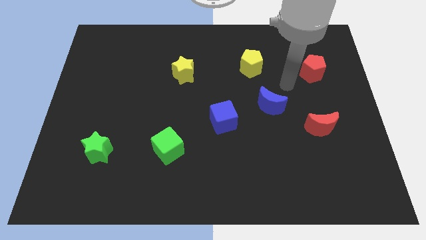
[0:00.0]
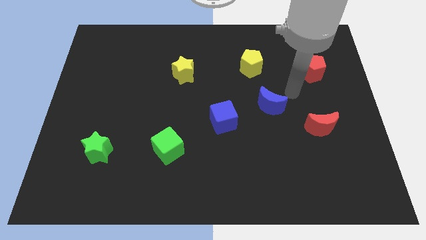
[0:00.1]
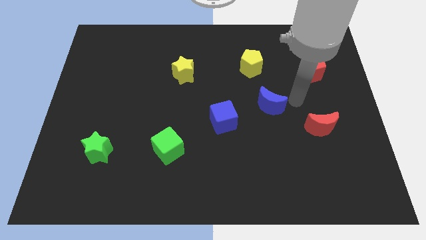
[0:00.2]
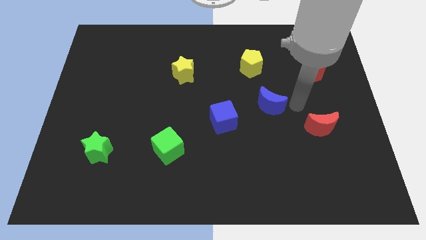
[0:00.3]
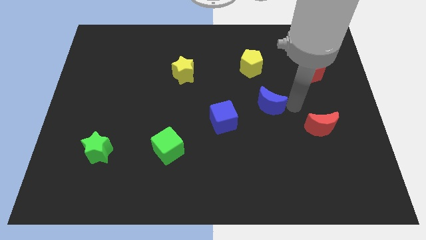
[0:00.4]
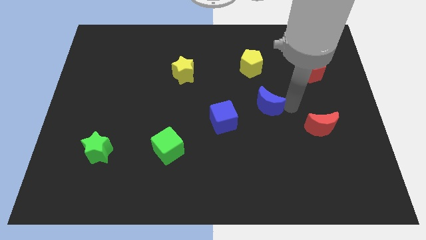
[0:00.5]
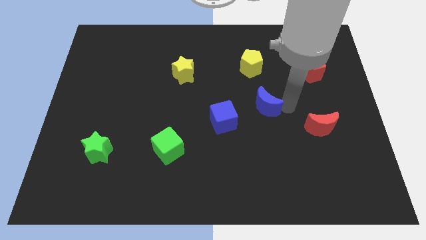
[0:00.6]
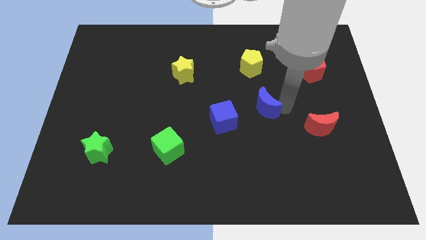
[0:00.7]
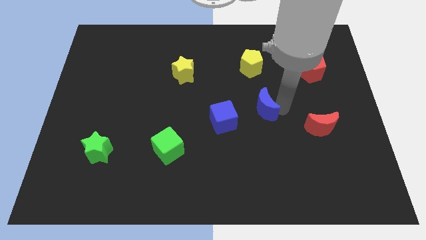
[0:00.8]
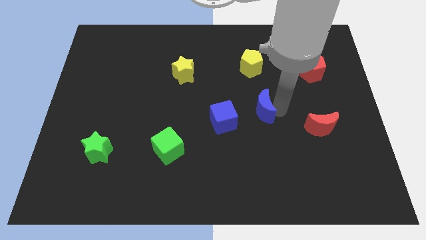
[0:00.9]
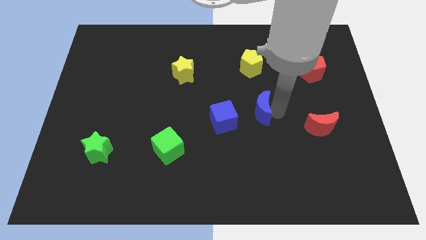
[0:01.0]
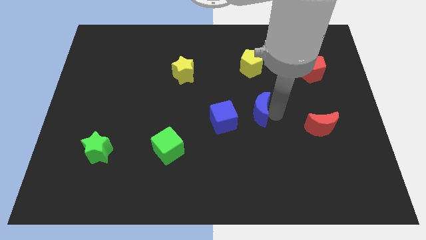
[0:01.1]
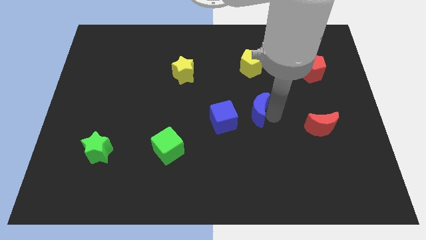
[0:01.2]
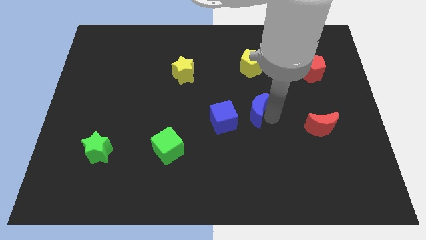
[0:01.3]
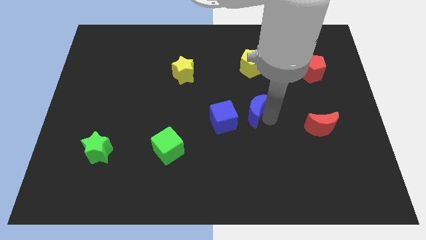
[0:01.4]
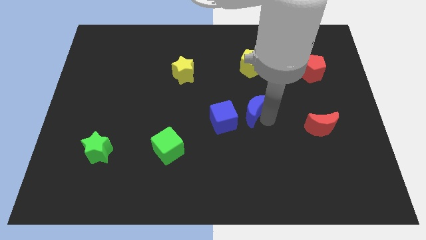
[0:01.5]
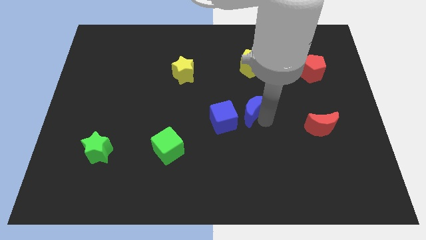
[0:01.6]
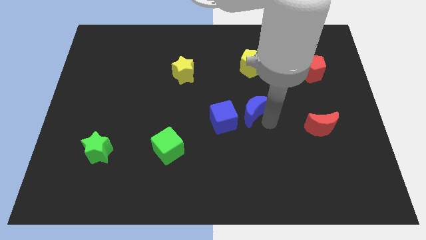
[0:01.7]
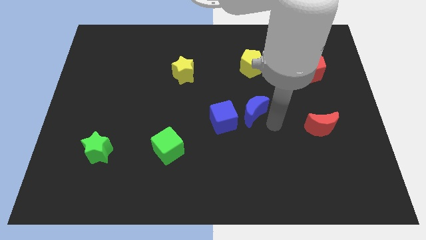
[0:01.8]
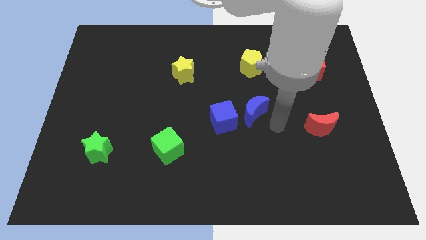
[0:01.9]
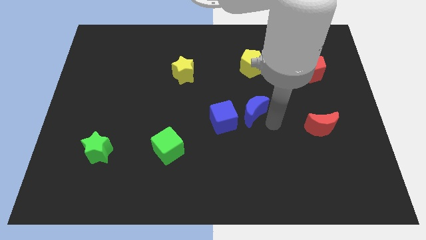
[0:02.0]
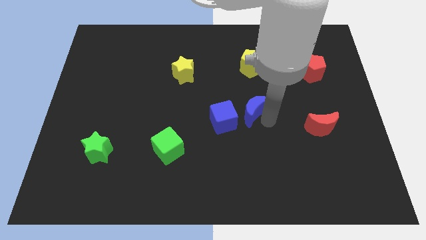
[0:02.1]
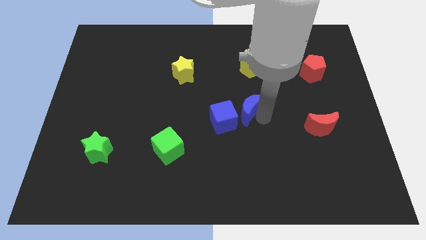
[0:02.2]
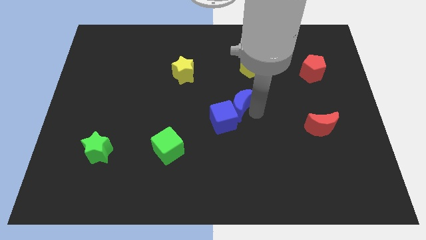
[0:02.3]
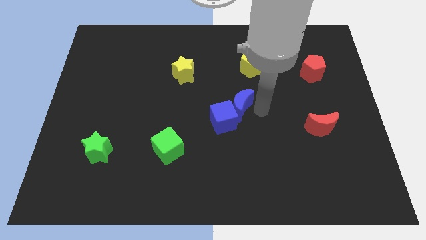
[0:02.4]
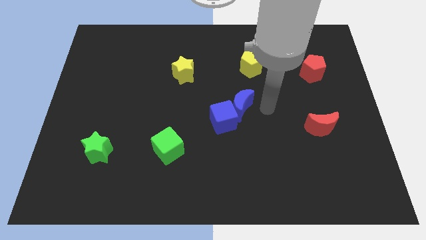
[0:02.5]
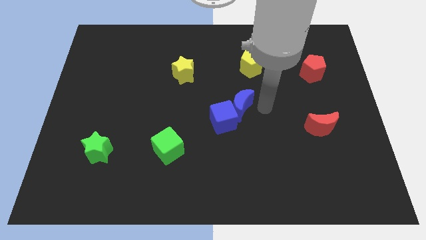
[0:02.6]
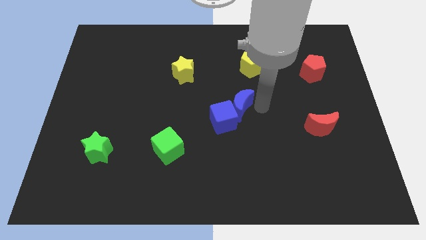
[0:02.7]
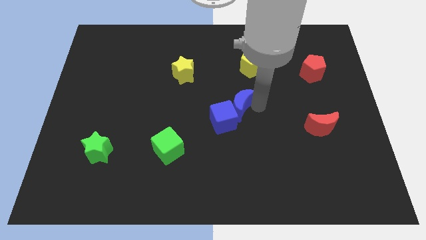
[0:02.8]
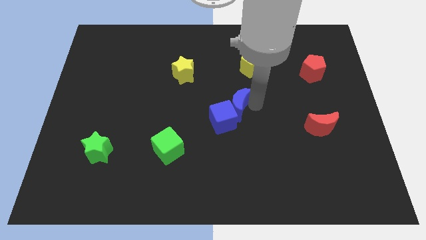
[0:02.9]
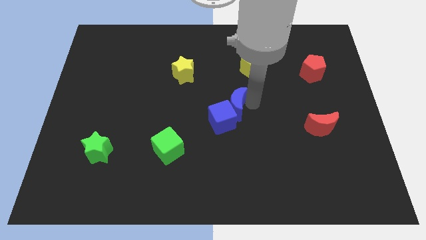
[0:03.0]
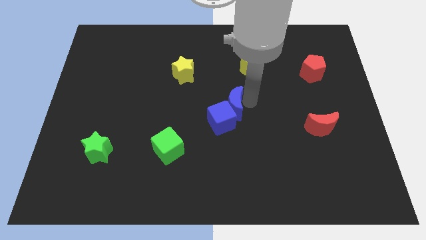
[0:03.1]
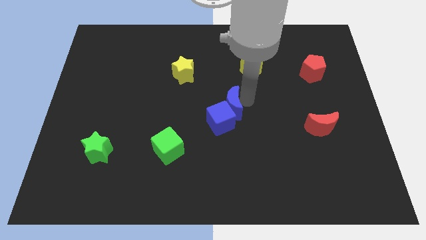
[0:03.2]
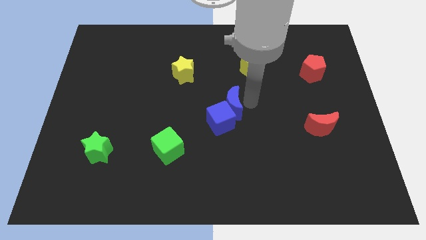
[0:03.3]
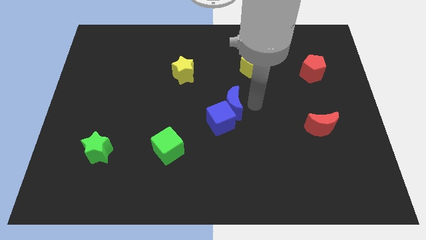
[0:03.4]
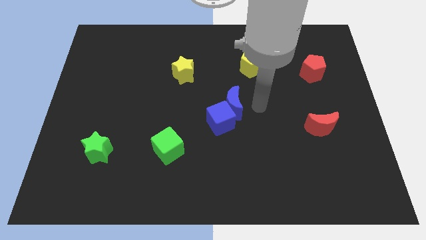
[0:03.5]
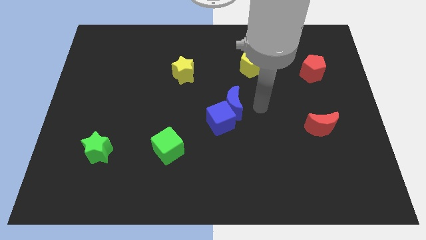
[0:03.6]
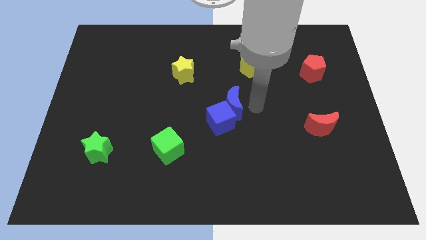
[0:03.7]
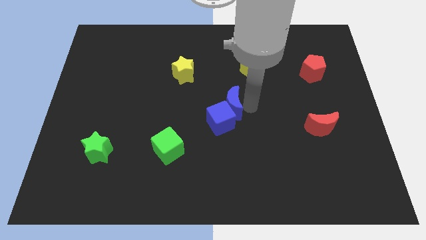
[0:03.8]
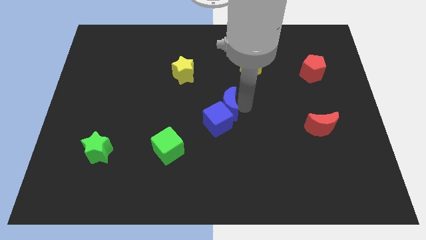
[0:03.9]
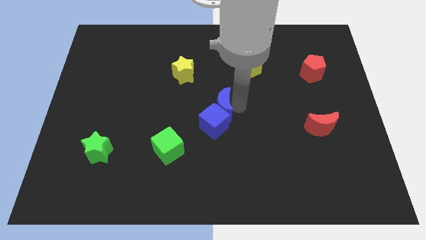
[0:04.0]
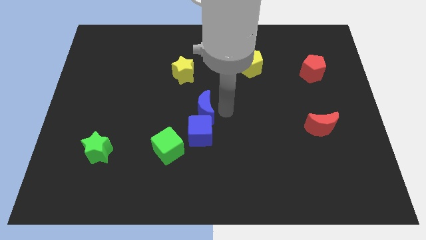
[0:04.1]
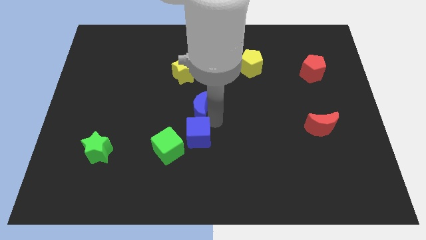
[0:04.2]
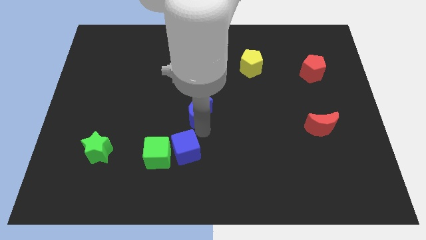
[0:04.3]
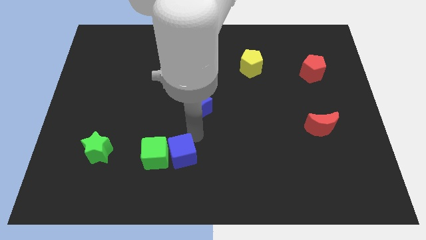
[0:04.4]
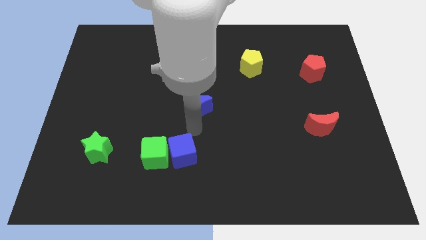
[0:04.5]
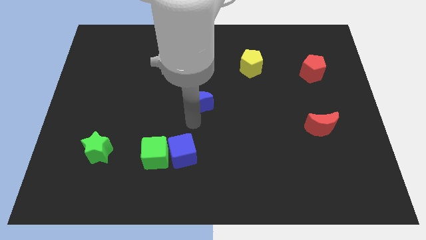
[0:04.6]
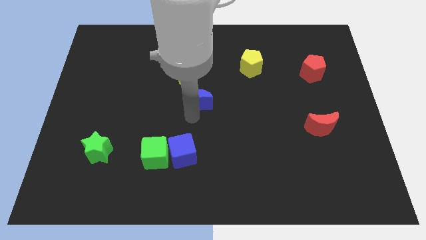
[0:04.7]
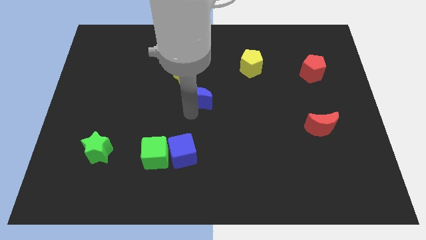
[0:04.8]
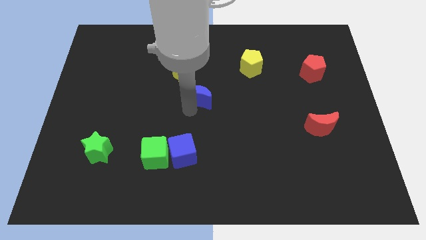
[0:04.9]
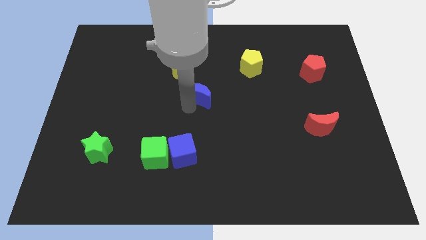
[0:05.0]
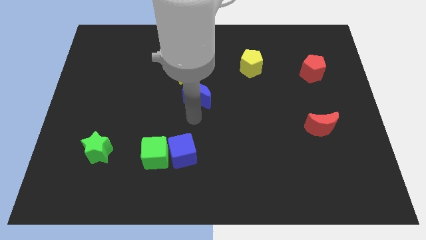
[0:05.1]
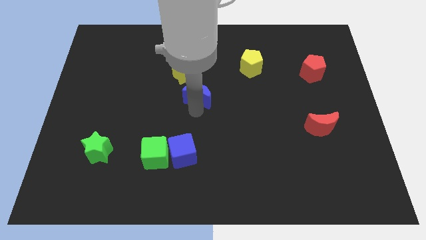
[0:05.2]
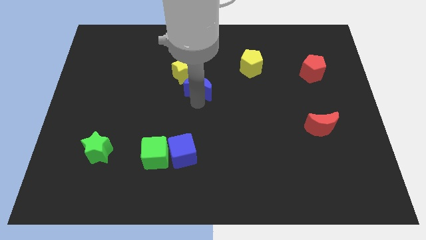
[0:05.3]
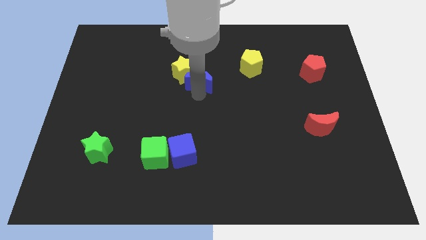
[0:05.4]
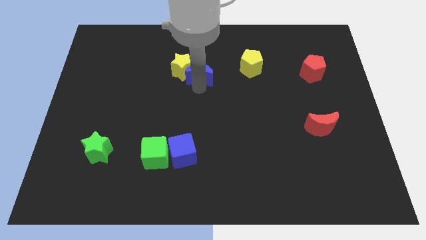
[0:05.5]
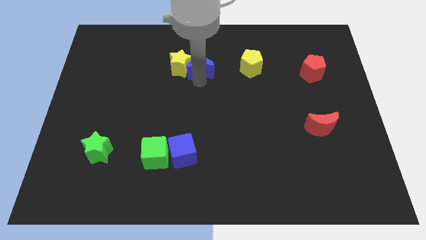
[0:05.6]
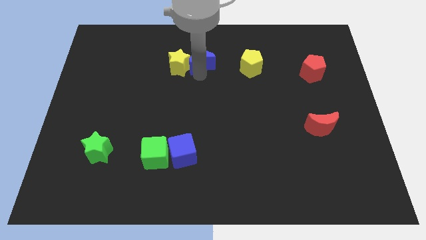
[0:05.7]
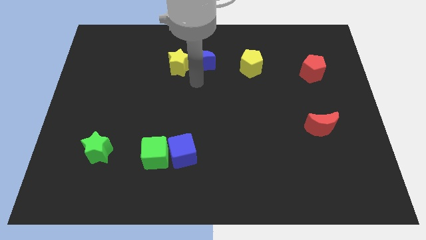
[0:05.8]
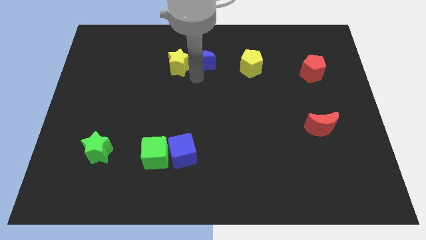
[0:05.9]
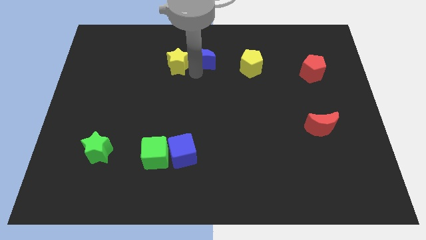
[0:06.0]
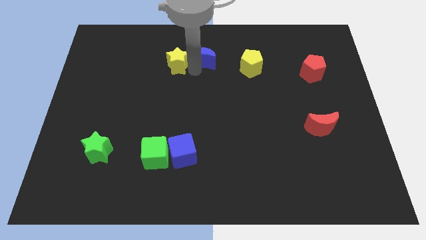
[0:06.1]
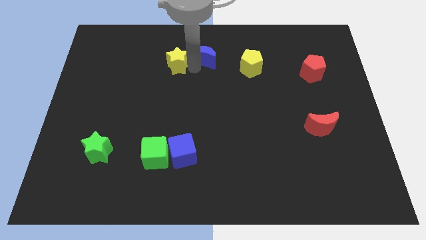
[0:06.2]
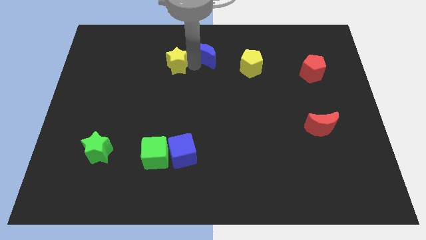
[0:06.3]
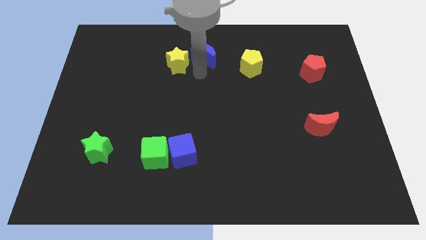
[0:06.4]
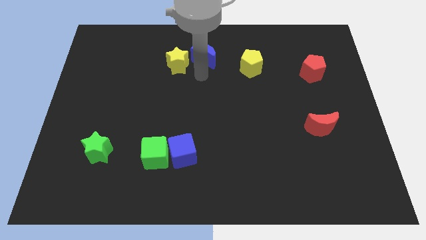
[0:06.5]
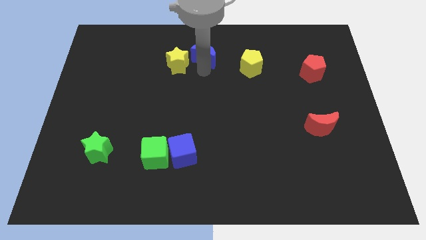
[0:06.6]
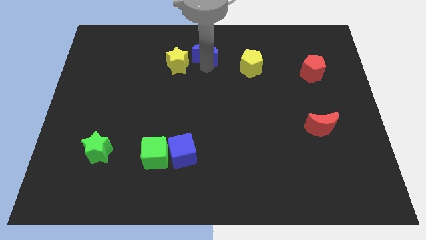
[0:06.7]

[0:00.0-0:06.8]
move the blue moon to the top side

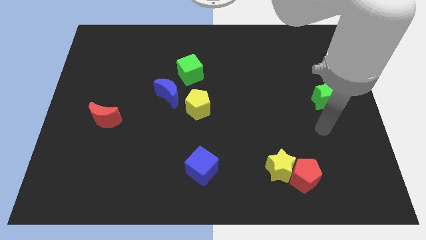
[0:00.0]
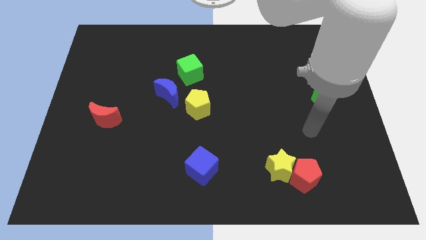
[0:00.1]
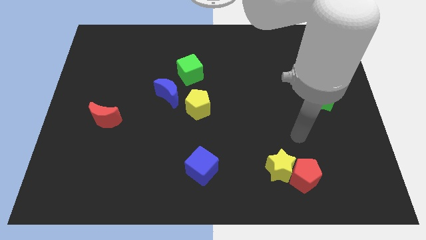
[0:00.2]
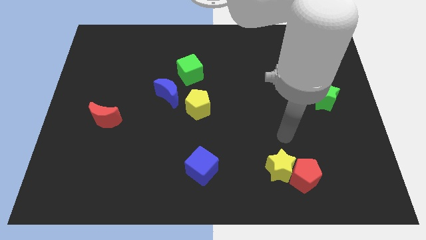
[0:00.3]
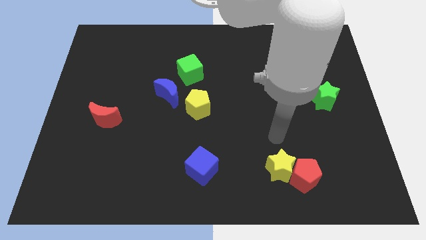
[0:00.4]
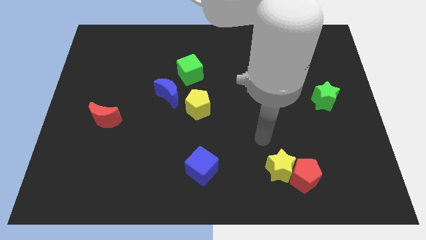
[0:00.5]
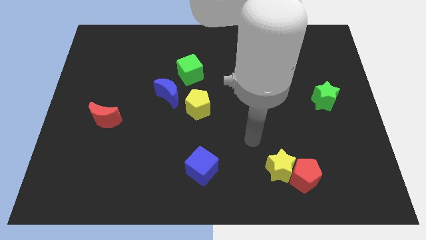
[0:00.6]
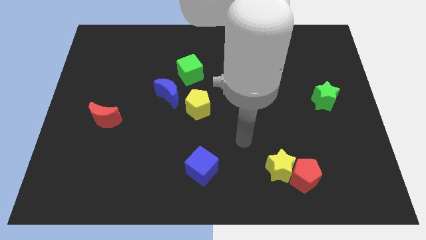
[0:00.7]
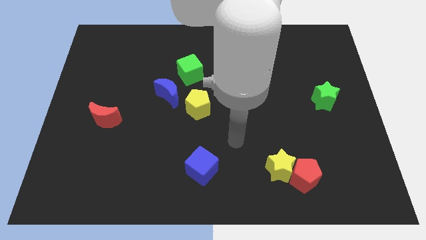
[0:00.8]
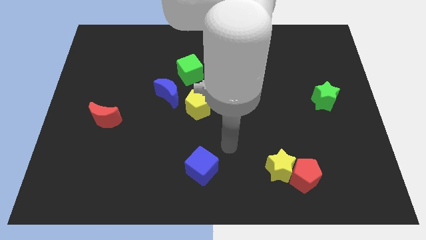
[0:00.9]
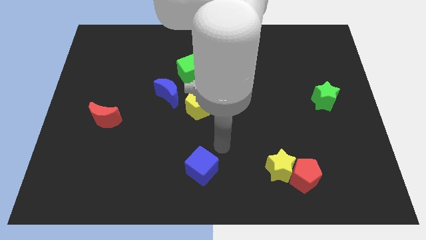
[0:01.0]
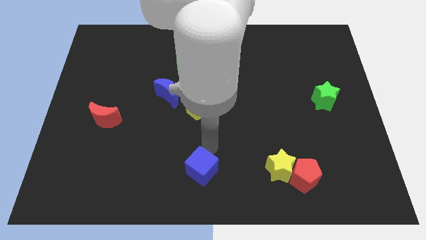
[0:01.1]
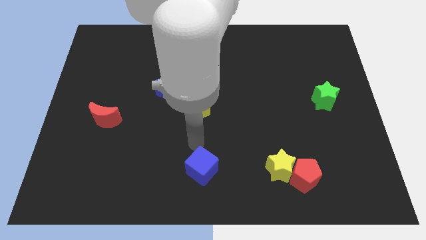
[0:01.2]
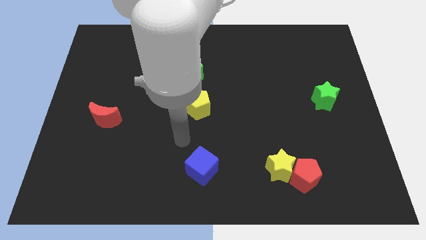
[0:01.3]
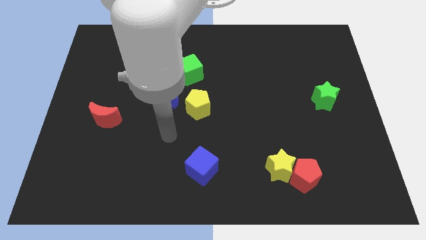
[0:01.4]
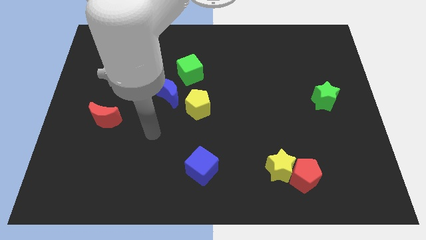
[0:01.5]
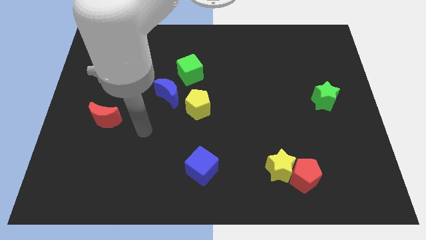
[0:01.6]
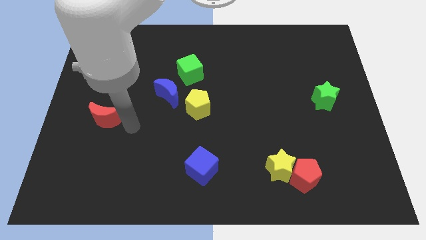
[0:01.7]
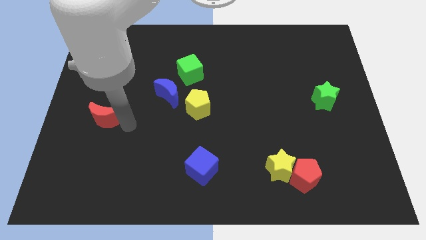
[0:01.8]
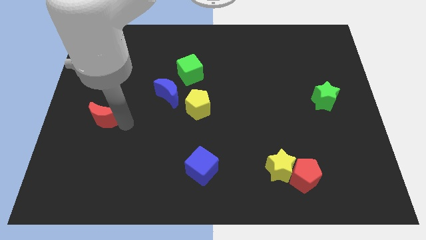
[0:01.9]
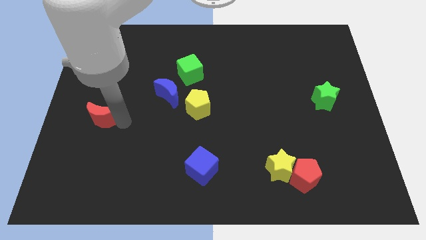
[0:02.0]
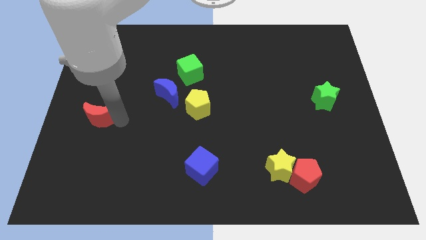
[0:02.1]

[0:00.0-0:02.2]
push the red moon to the center left
